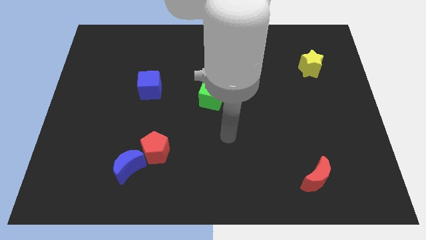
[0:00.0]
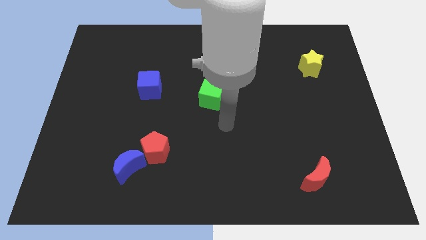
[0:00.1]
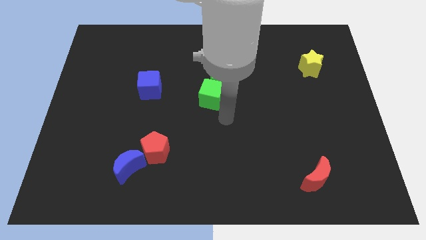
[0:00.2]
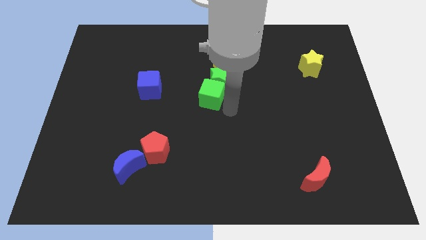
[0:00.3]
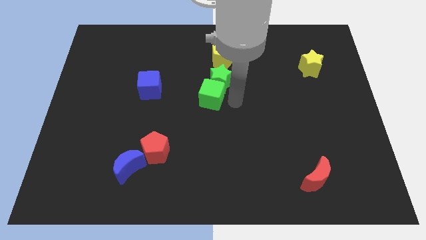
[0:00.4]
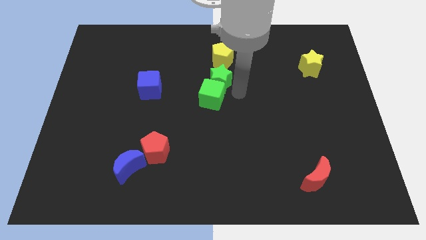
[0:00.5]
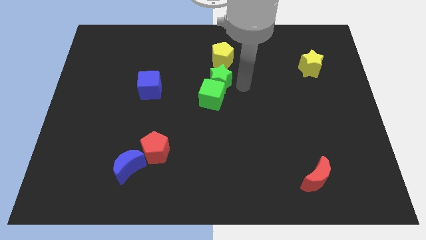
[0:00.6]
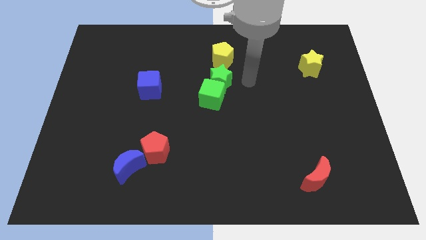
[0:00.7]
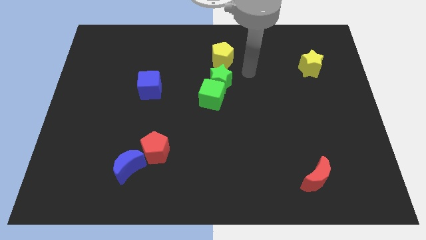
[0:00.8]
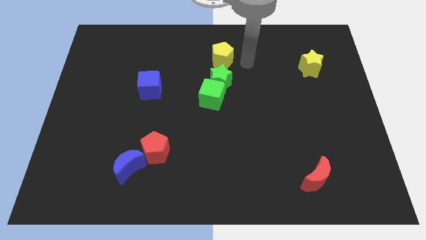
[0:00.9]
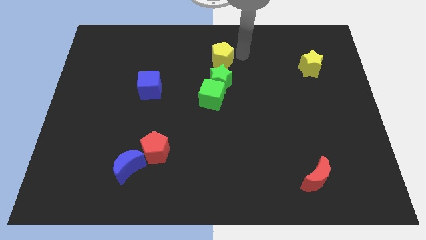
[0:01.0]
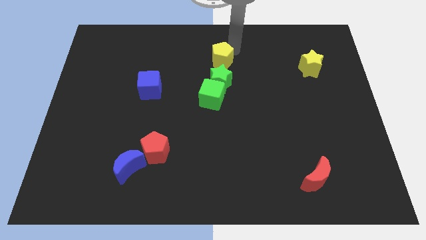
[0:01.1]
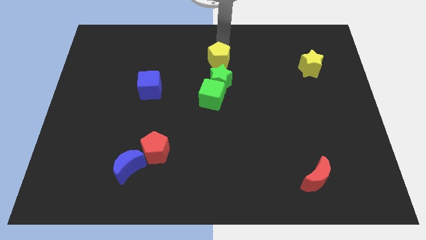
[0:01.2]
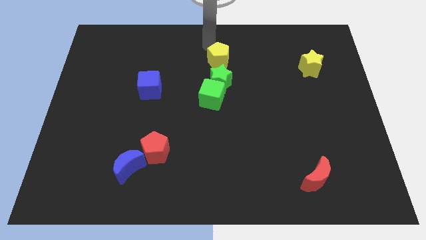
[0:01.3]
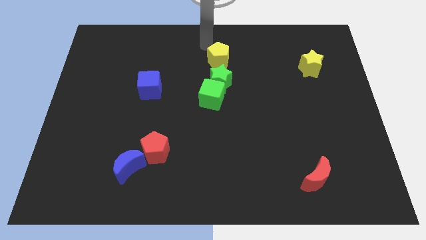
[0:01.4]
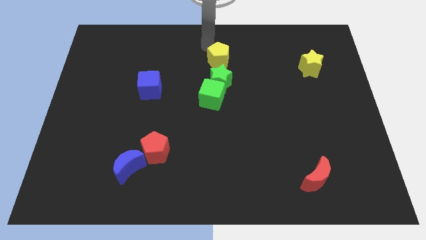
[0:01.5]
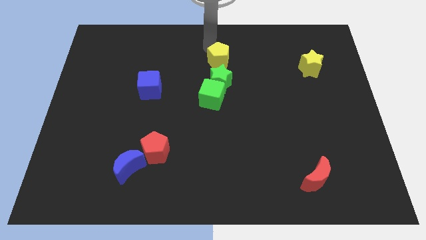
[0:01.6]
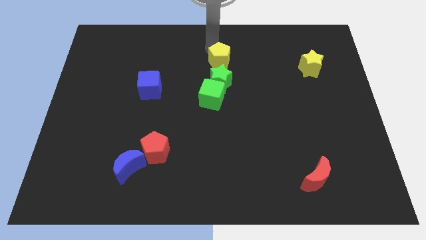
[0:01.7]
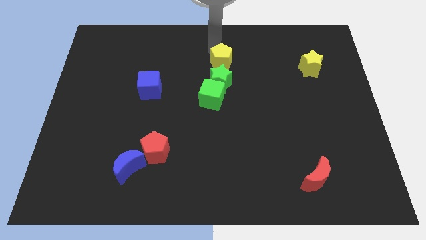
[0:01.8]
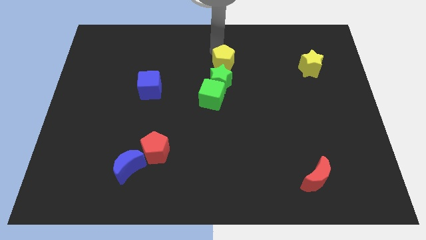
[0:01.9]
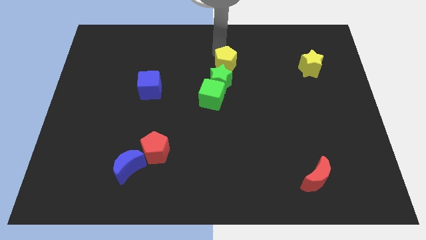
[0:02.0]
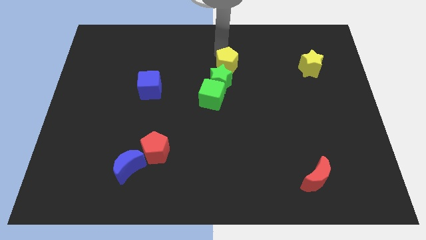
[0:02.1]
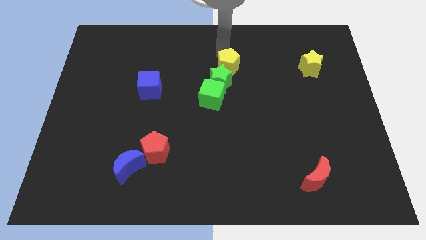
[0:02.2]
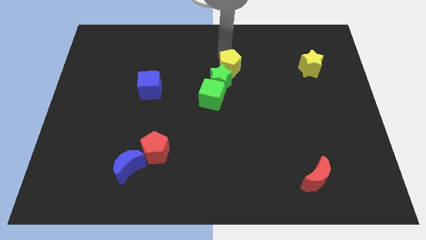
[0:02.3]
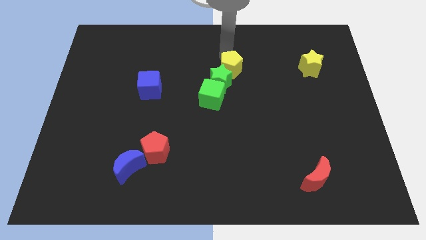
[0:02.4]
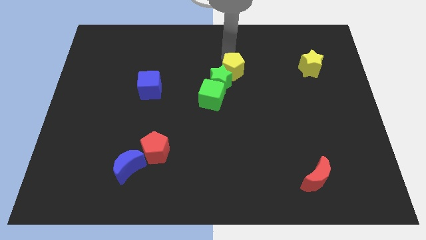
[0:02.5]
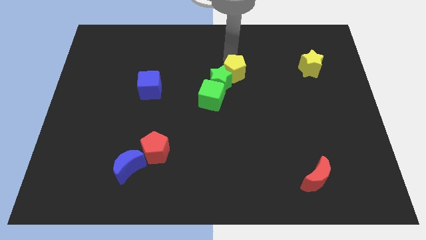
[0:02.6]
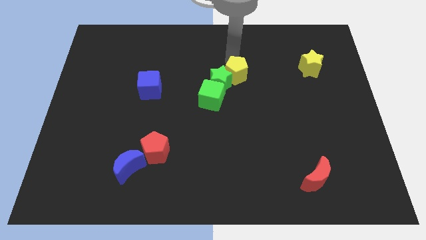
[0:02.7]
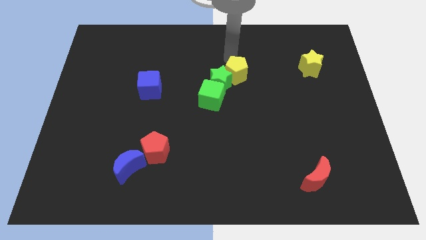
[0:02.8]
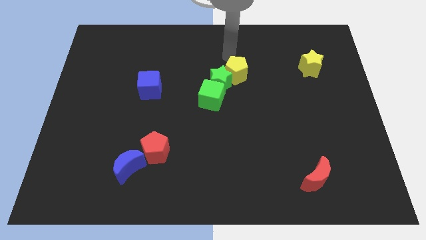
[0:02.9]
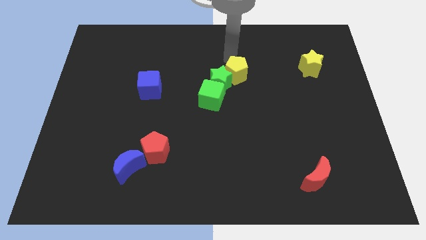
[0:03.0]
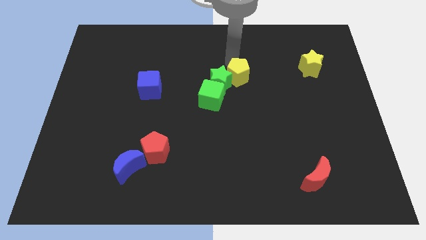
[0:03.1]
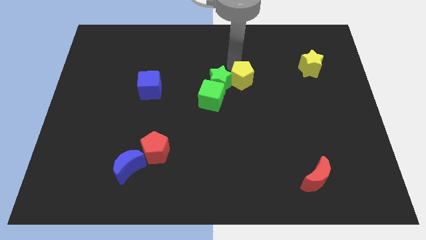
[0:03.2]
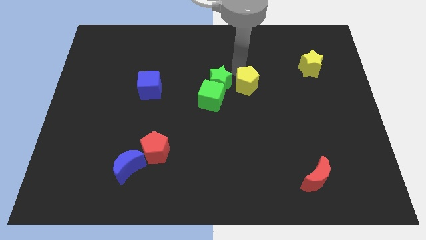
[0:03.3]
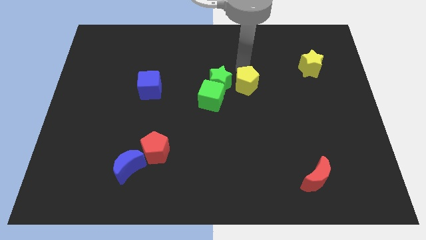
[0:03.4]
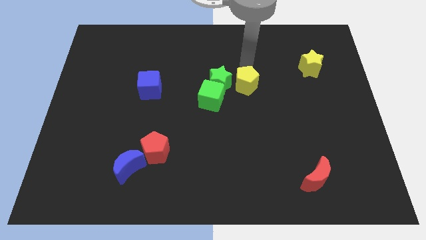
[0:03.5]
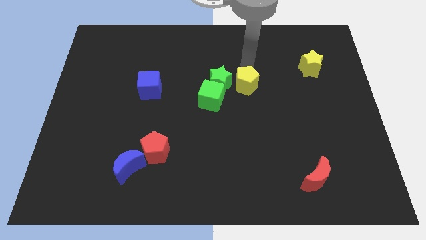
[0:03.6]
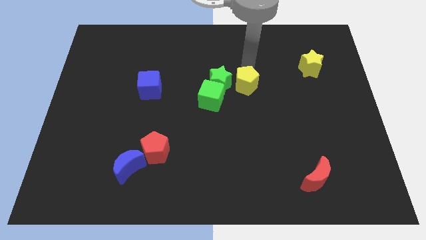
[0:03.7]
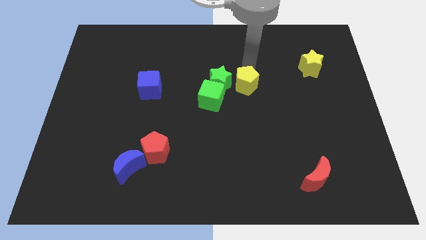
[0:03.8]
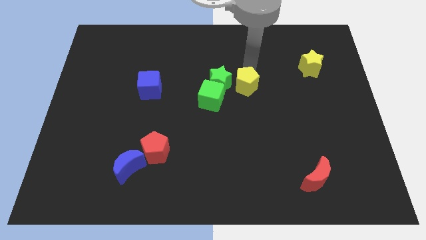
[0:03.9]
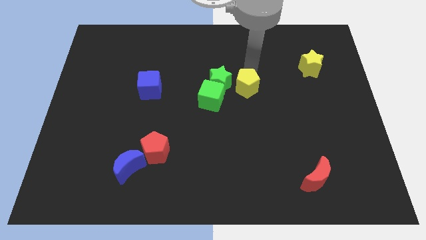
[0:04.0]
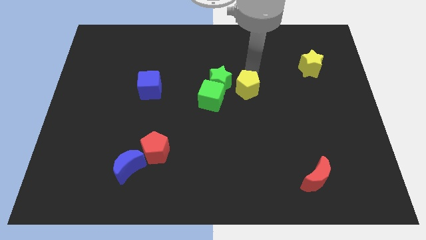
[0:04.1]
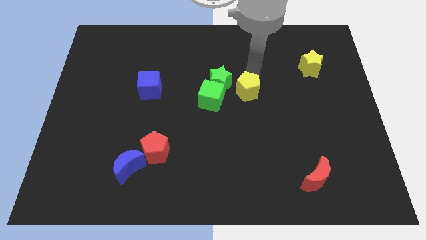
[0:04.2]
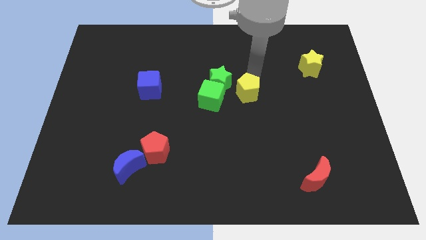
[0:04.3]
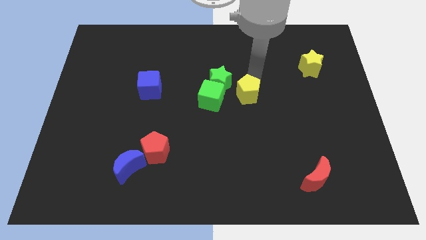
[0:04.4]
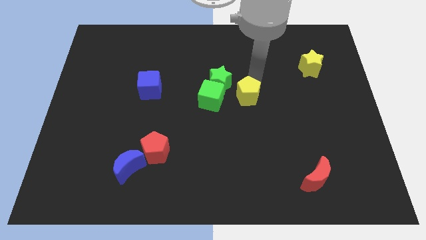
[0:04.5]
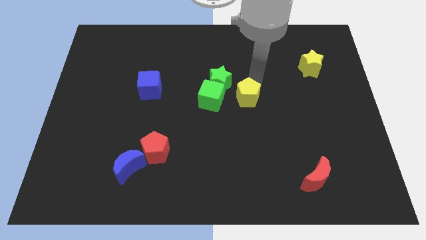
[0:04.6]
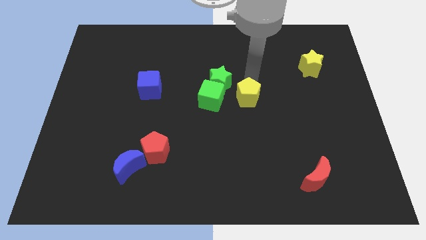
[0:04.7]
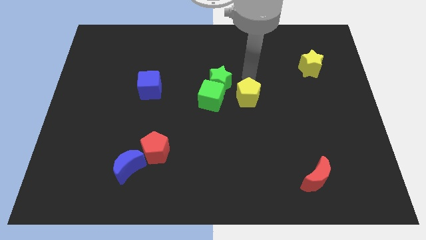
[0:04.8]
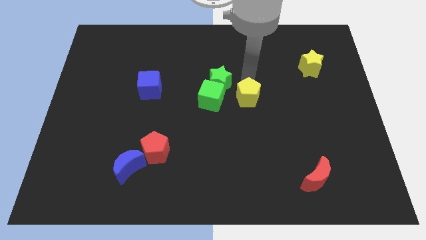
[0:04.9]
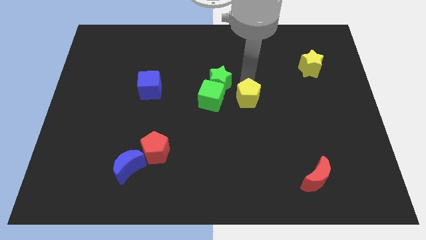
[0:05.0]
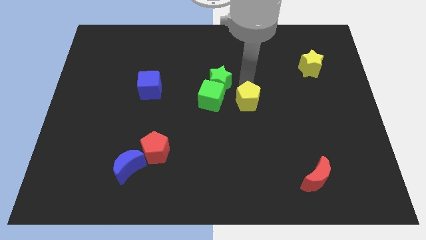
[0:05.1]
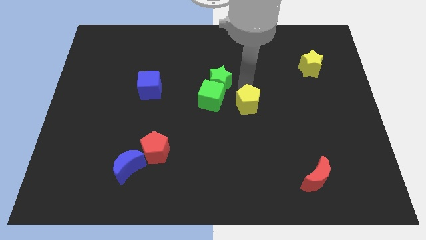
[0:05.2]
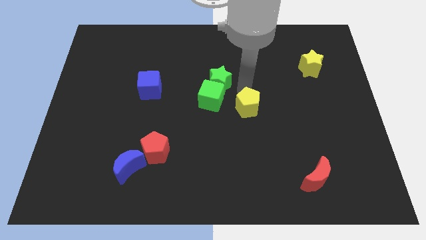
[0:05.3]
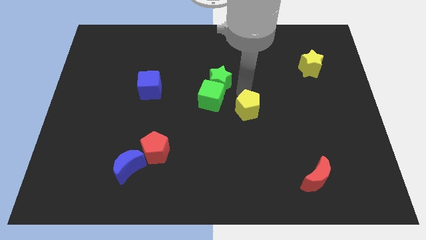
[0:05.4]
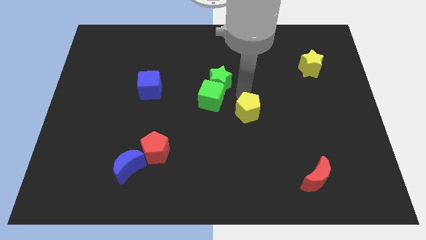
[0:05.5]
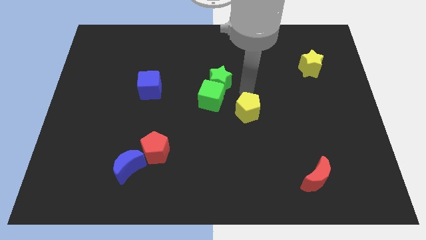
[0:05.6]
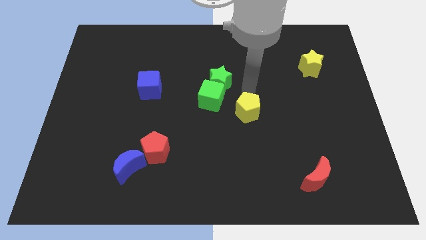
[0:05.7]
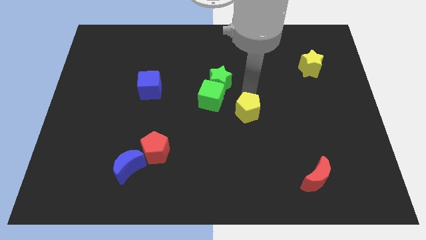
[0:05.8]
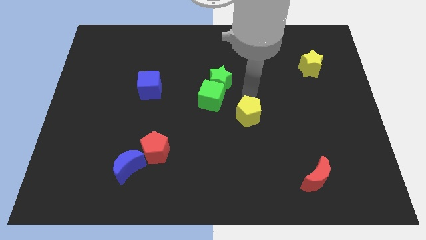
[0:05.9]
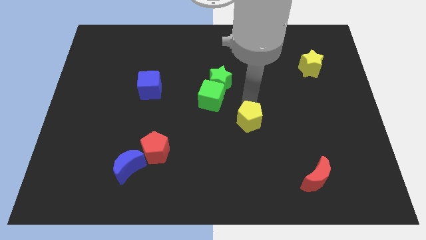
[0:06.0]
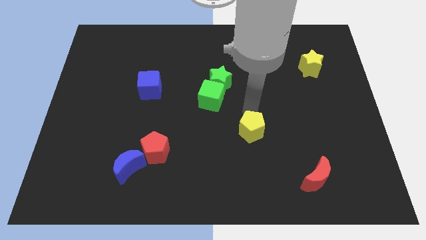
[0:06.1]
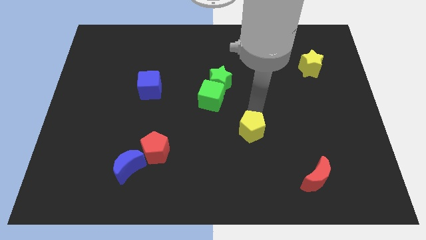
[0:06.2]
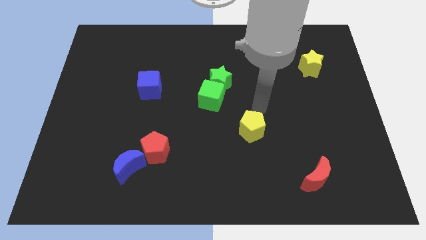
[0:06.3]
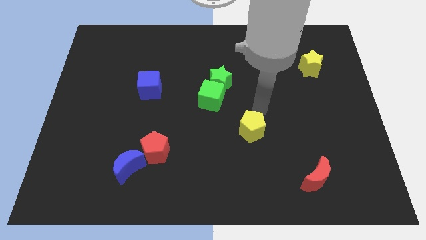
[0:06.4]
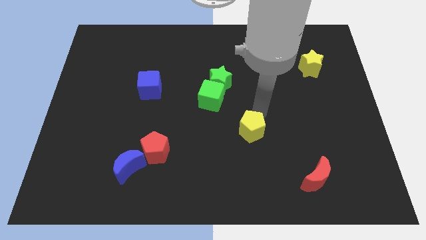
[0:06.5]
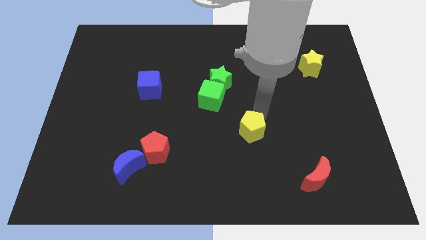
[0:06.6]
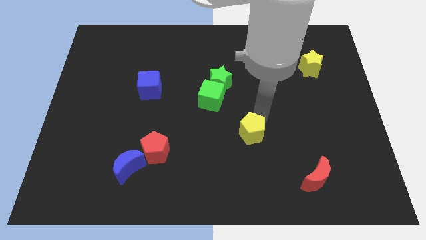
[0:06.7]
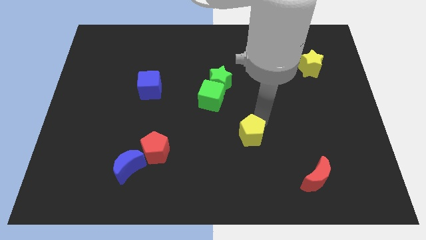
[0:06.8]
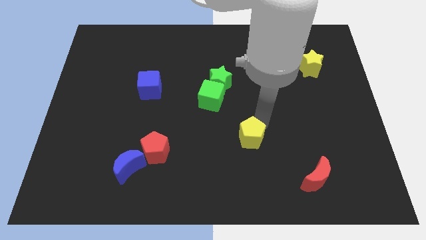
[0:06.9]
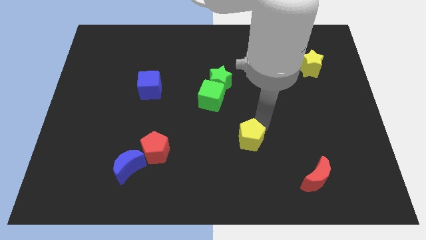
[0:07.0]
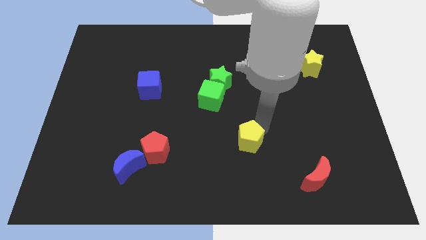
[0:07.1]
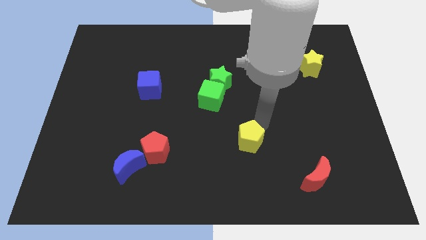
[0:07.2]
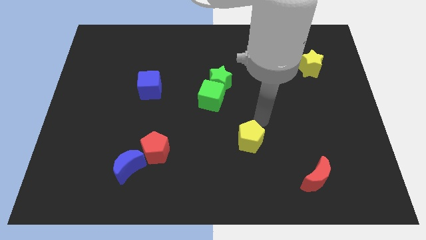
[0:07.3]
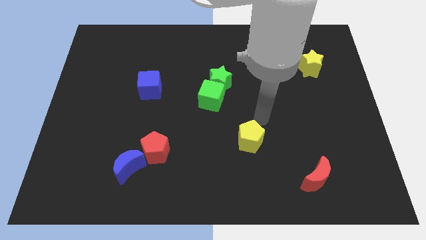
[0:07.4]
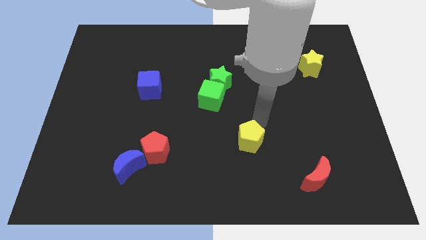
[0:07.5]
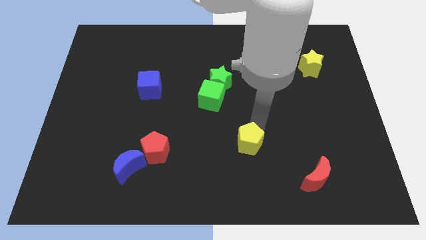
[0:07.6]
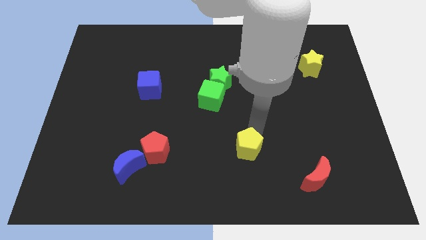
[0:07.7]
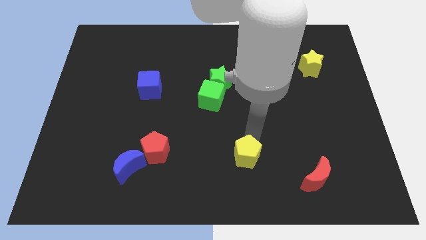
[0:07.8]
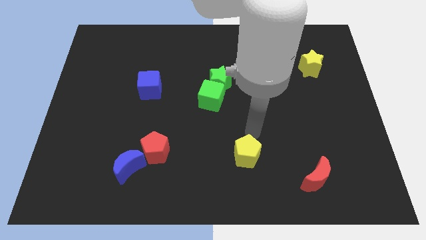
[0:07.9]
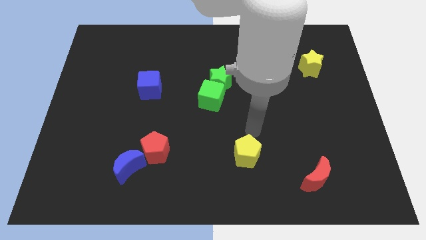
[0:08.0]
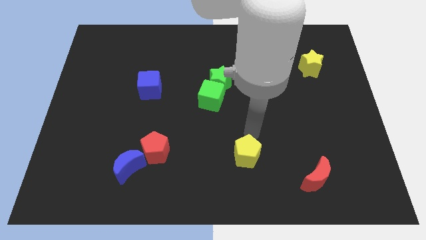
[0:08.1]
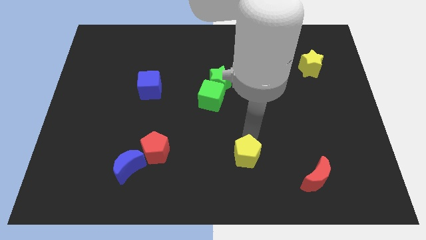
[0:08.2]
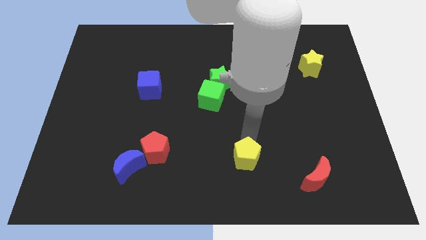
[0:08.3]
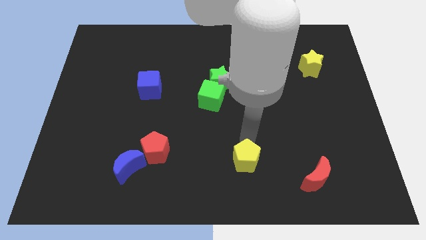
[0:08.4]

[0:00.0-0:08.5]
slide the yellow pentagon to the bottom
